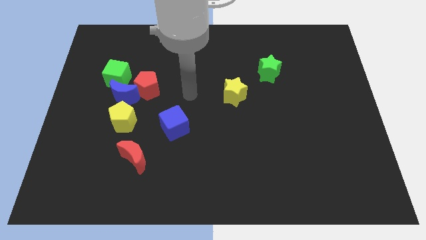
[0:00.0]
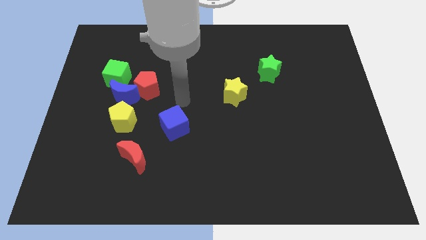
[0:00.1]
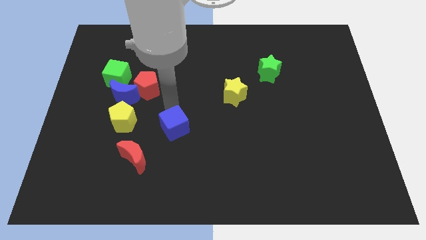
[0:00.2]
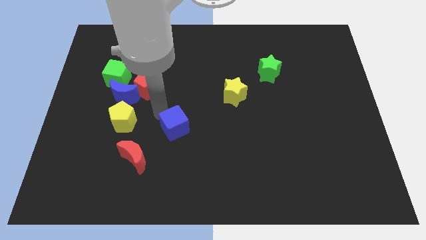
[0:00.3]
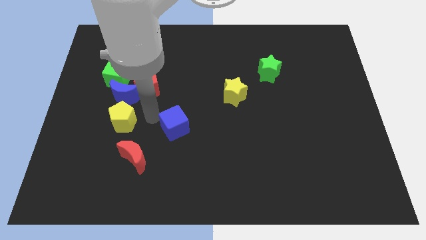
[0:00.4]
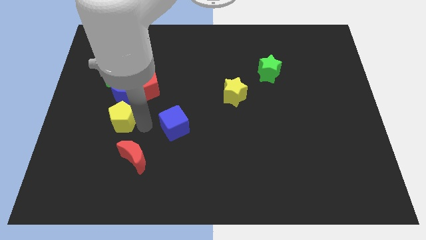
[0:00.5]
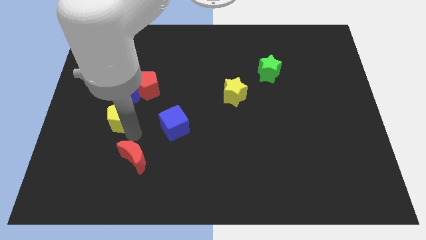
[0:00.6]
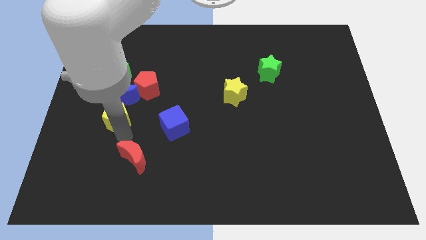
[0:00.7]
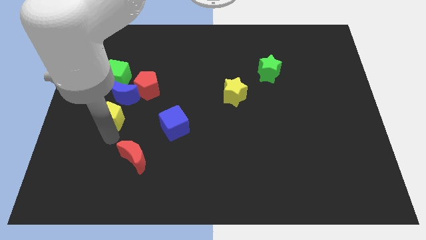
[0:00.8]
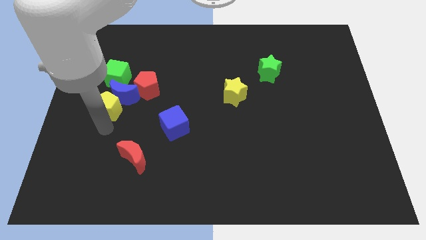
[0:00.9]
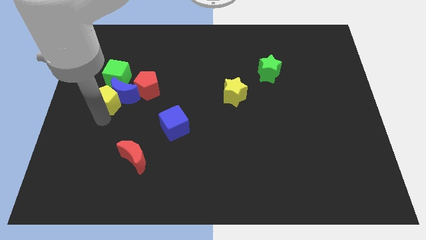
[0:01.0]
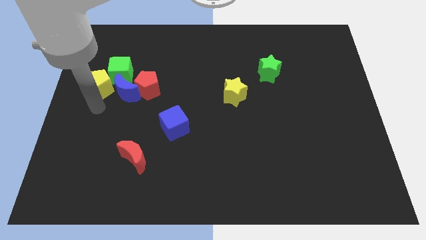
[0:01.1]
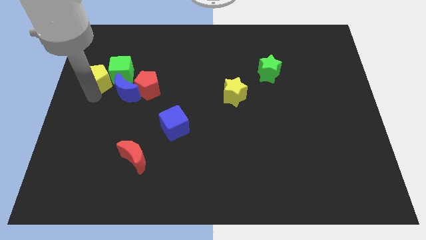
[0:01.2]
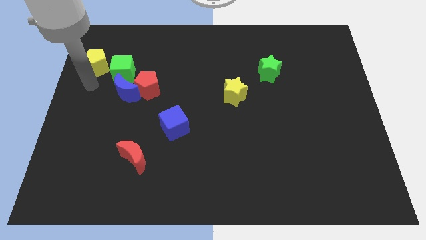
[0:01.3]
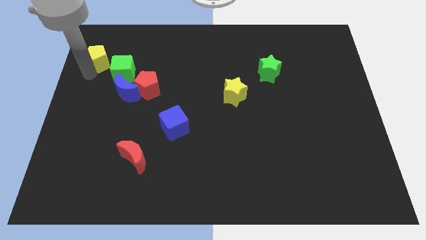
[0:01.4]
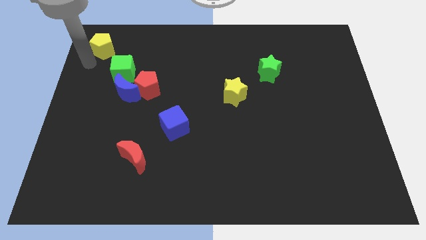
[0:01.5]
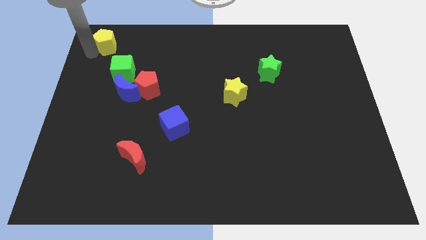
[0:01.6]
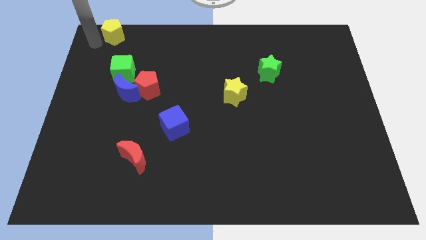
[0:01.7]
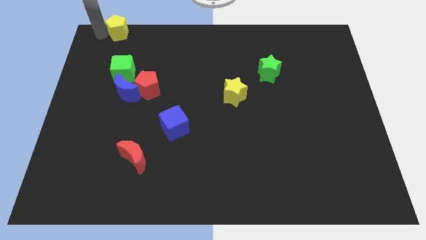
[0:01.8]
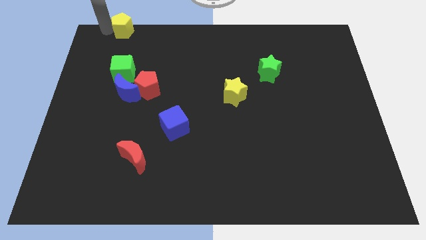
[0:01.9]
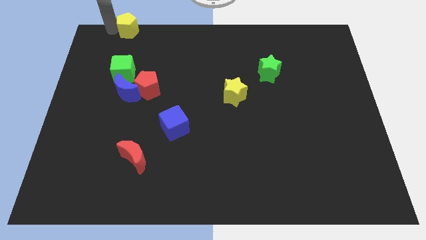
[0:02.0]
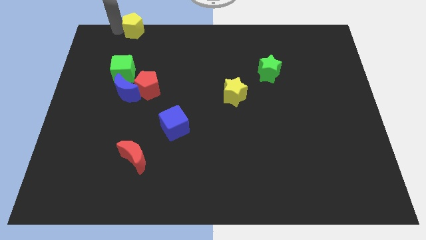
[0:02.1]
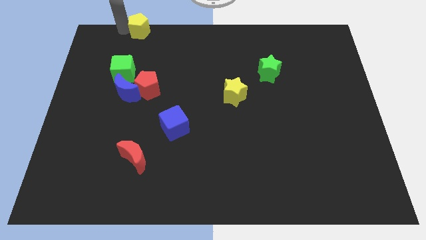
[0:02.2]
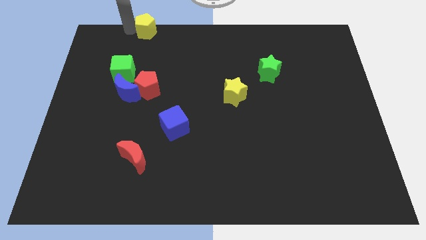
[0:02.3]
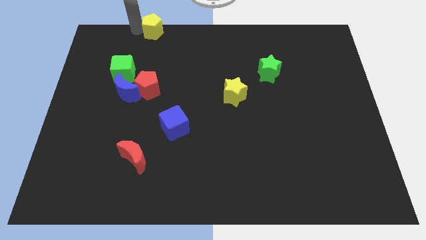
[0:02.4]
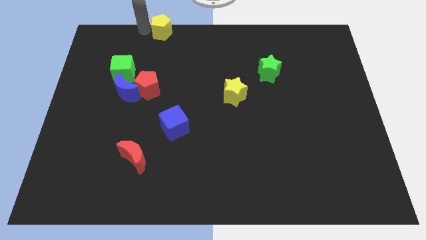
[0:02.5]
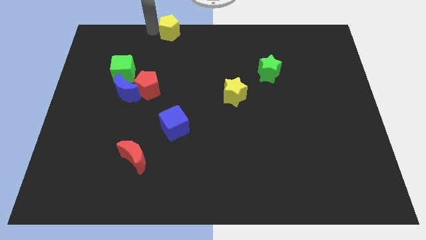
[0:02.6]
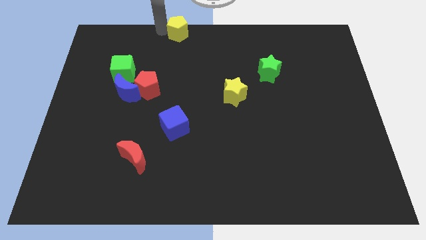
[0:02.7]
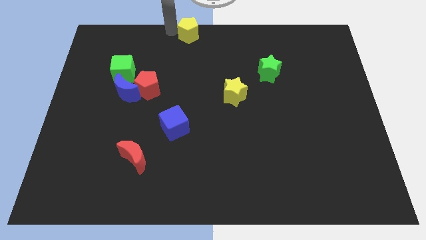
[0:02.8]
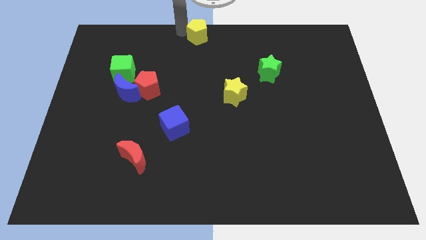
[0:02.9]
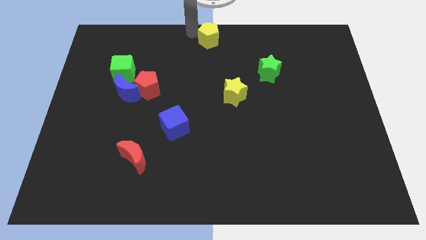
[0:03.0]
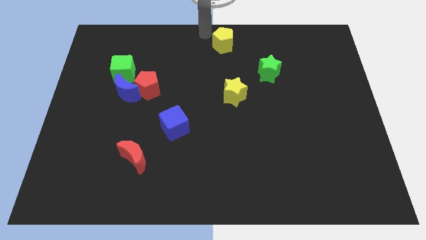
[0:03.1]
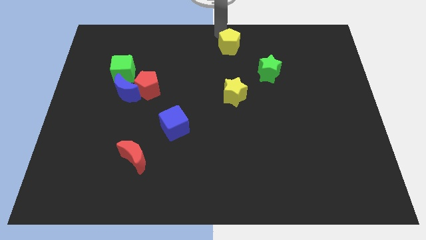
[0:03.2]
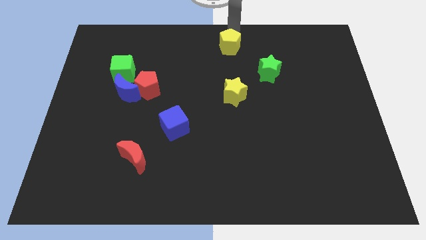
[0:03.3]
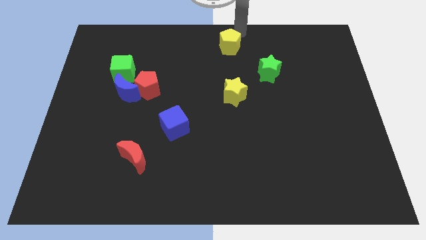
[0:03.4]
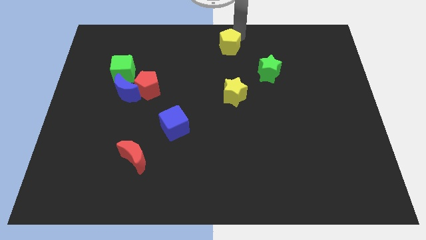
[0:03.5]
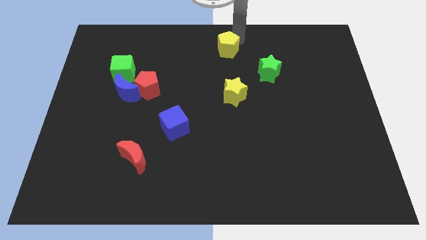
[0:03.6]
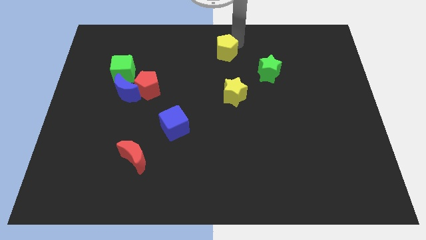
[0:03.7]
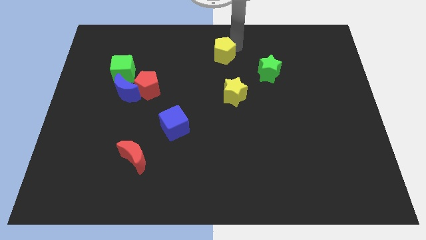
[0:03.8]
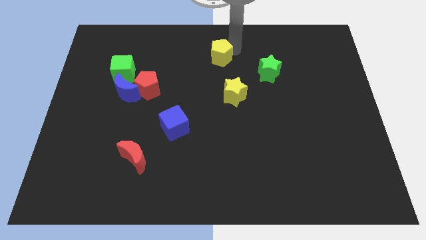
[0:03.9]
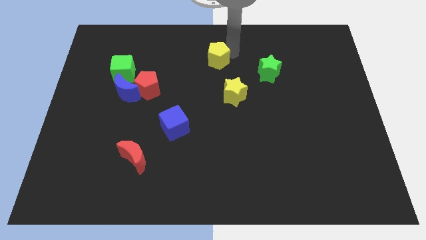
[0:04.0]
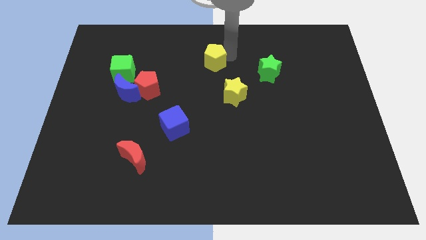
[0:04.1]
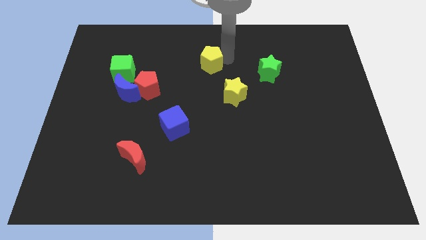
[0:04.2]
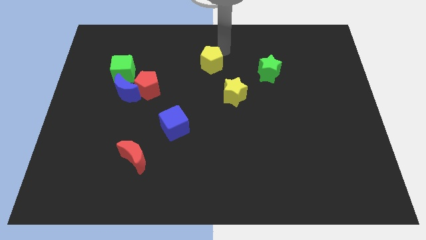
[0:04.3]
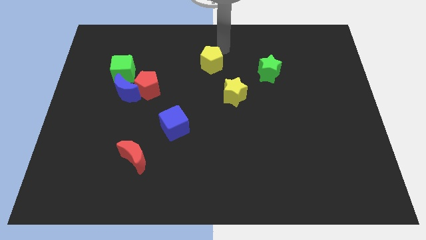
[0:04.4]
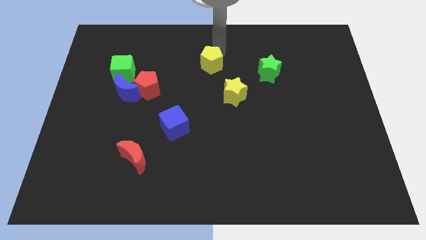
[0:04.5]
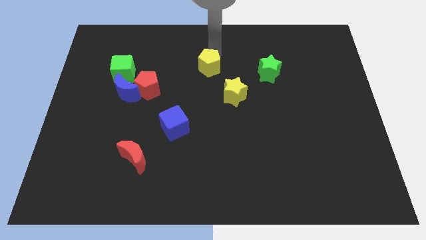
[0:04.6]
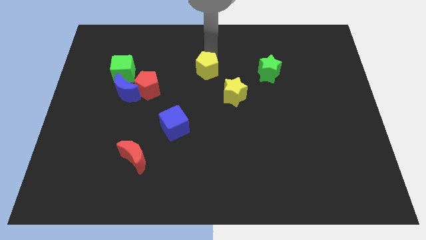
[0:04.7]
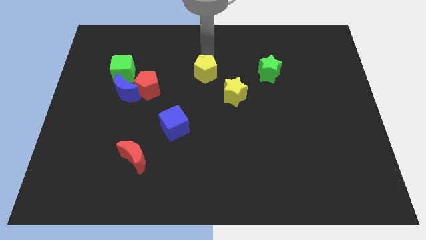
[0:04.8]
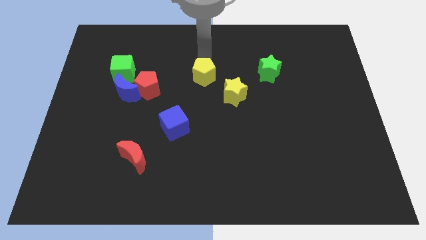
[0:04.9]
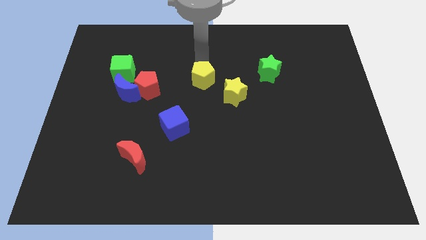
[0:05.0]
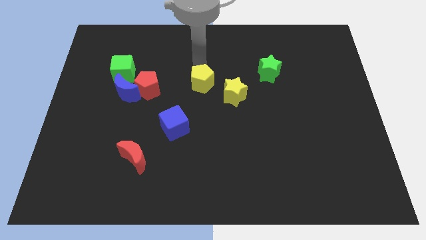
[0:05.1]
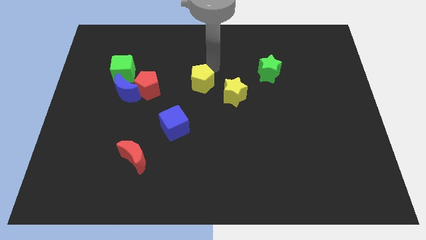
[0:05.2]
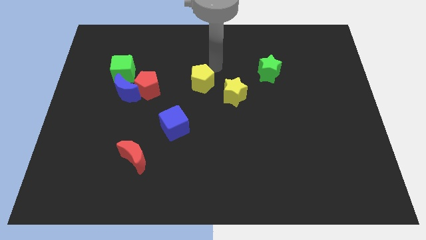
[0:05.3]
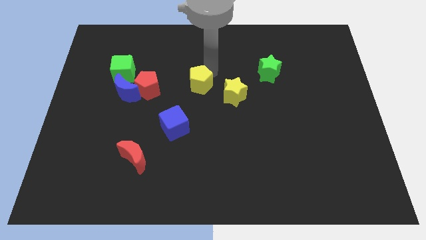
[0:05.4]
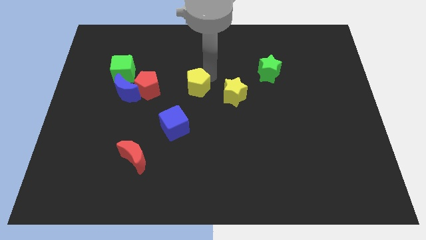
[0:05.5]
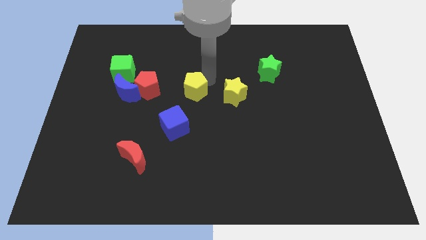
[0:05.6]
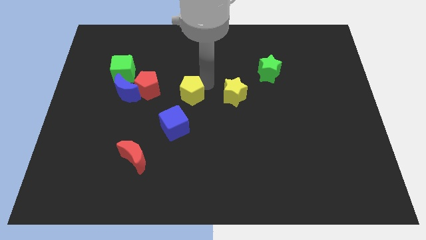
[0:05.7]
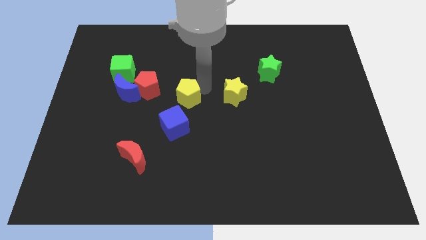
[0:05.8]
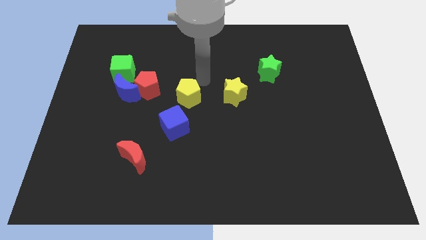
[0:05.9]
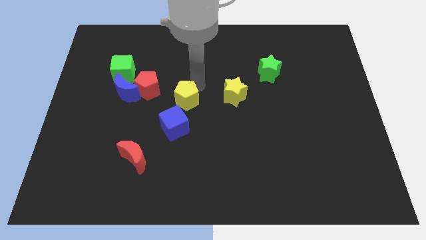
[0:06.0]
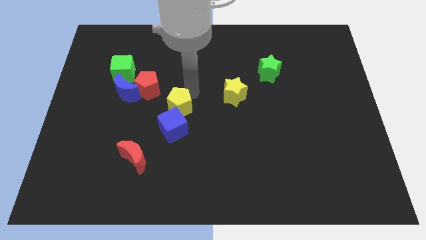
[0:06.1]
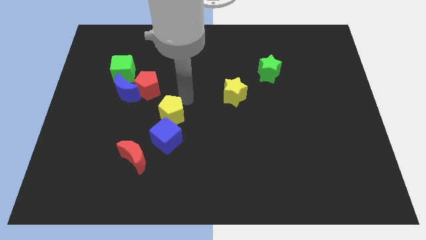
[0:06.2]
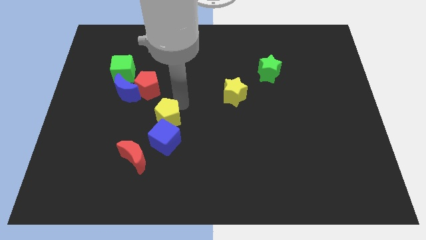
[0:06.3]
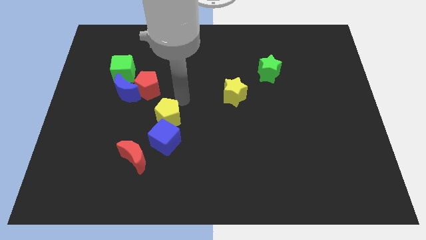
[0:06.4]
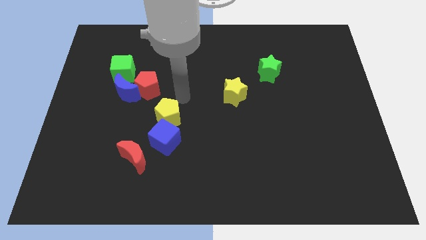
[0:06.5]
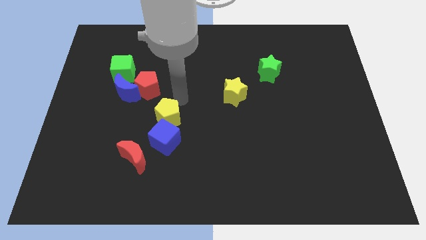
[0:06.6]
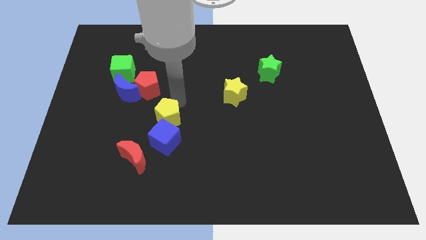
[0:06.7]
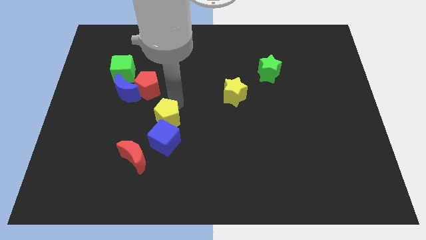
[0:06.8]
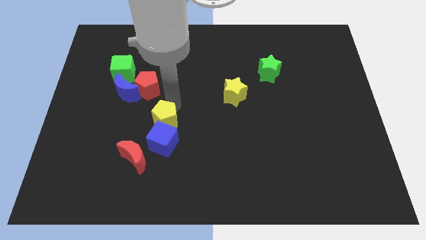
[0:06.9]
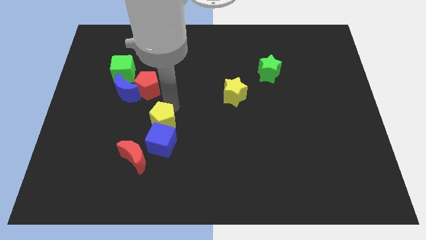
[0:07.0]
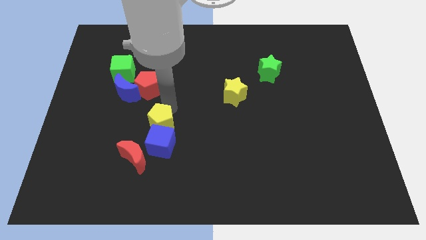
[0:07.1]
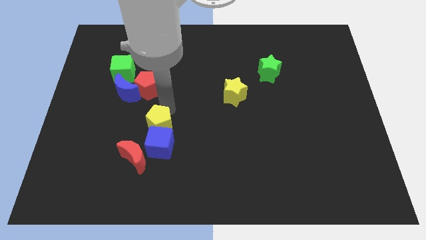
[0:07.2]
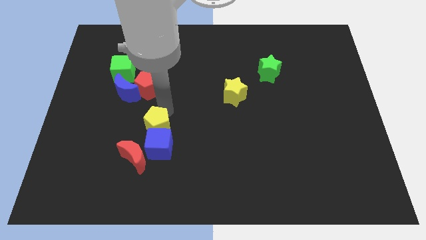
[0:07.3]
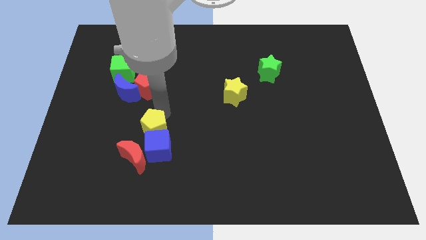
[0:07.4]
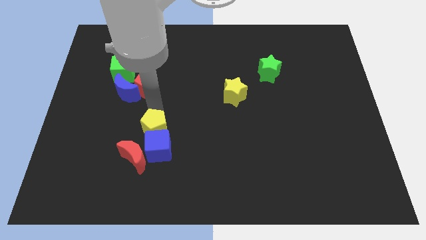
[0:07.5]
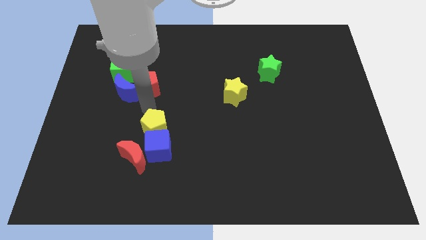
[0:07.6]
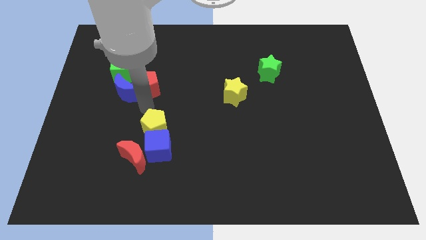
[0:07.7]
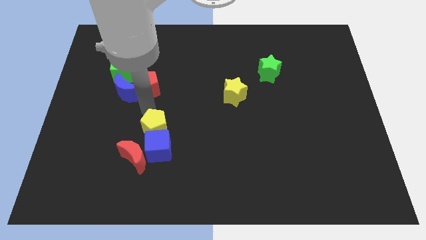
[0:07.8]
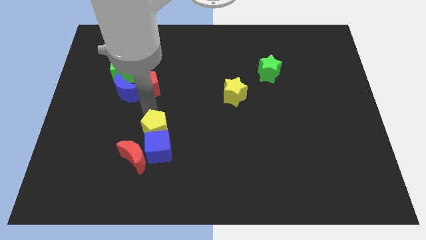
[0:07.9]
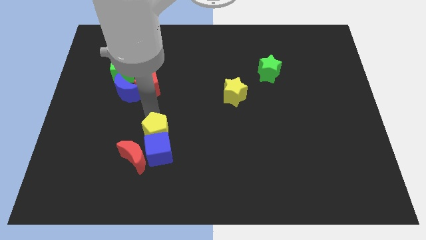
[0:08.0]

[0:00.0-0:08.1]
slide the yellow pentagon down and to the right a little
